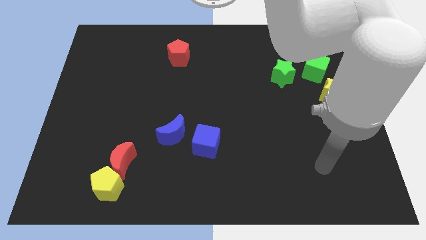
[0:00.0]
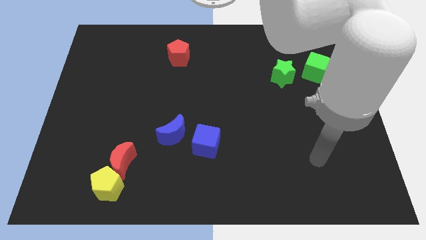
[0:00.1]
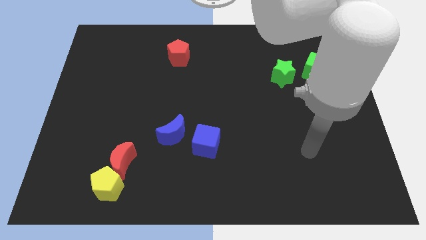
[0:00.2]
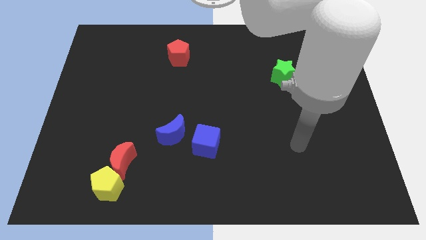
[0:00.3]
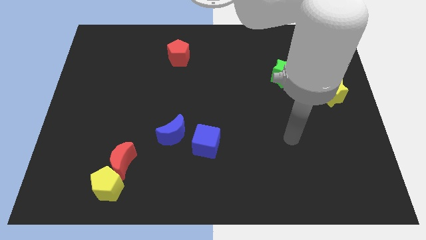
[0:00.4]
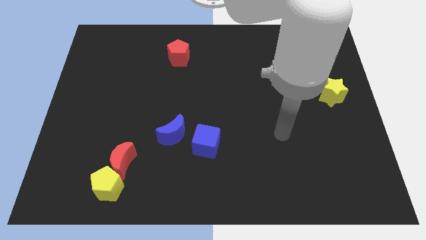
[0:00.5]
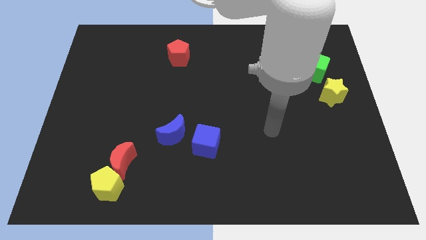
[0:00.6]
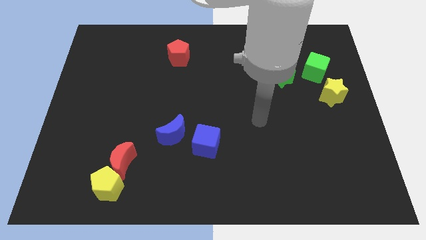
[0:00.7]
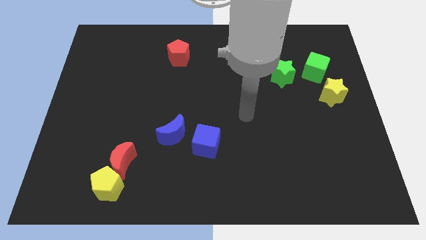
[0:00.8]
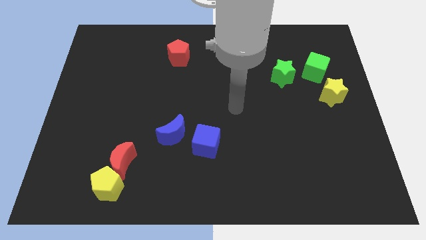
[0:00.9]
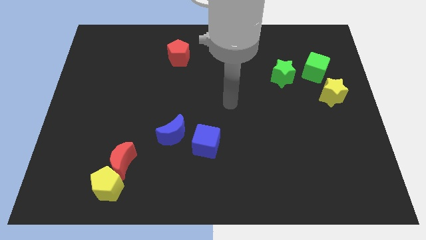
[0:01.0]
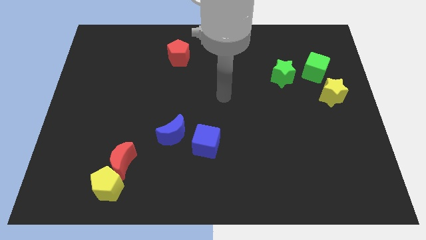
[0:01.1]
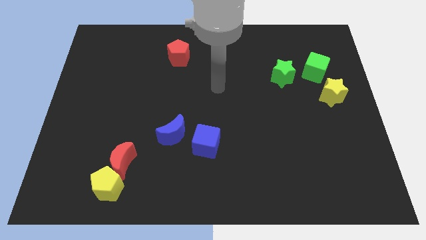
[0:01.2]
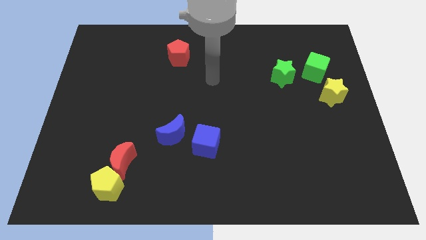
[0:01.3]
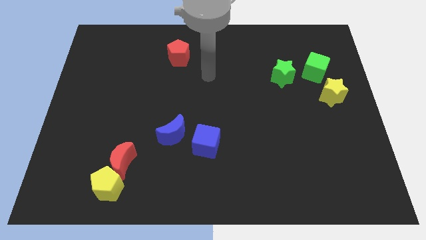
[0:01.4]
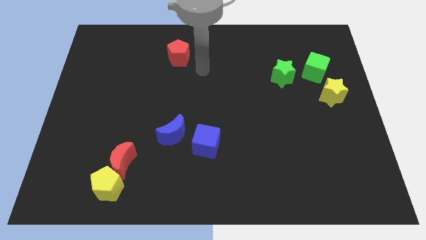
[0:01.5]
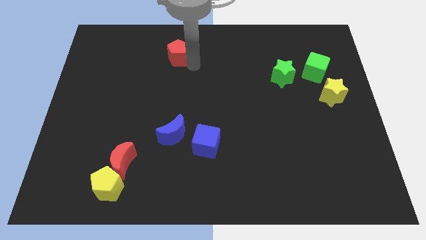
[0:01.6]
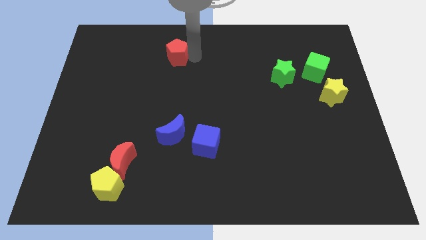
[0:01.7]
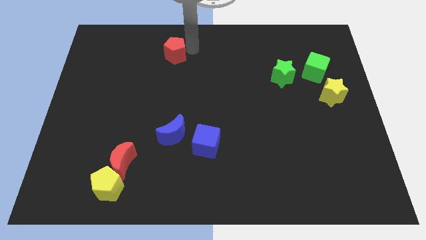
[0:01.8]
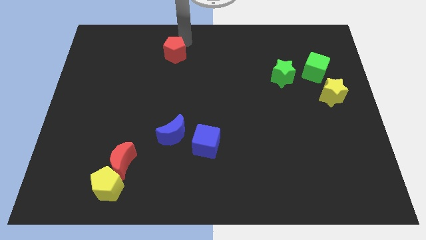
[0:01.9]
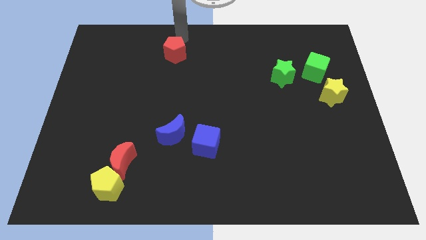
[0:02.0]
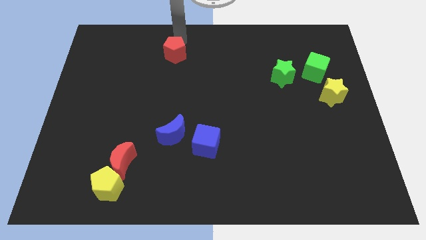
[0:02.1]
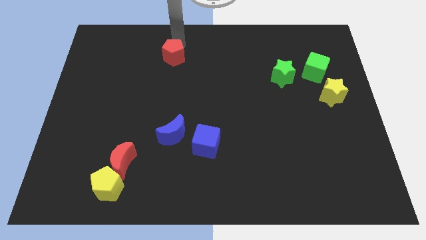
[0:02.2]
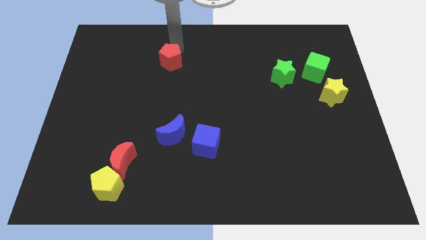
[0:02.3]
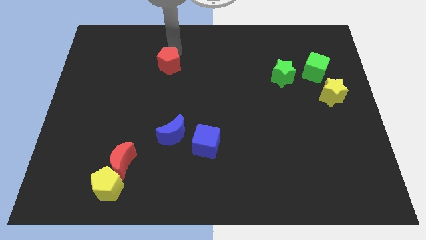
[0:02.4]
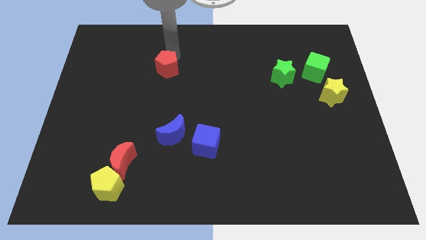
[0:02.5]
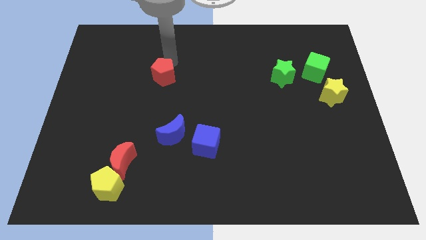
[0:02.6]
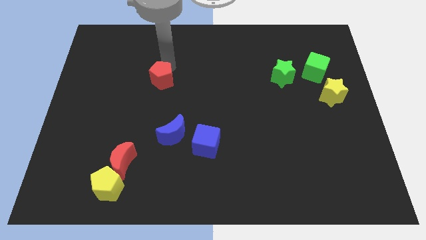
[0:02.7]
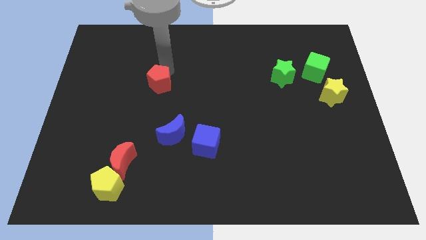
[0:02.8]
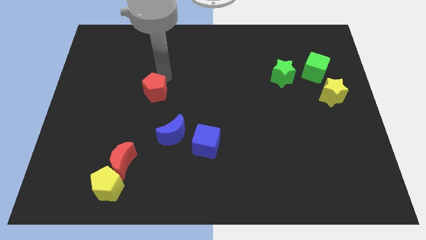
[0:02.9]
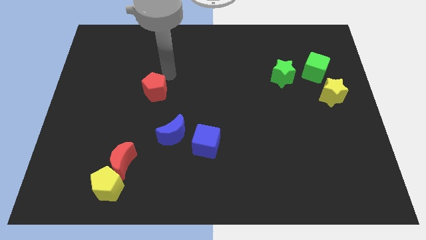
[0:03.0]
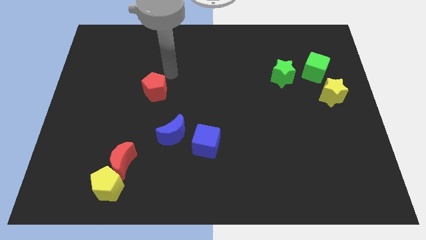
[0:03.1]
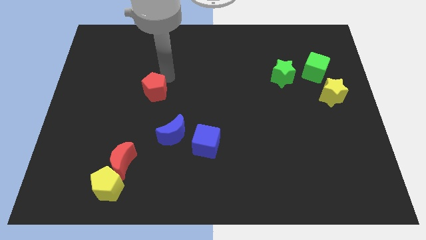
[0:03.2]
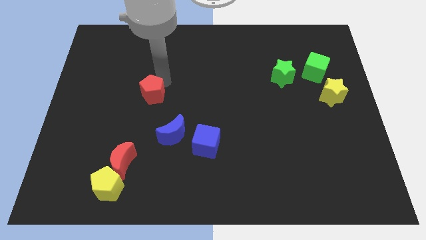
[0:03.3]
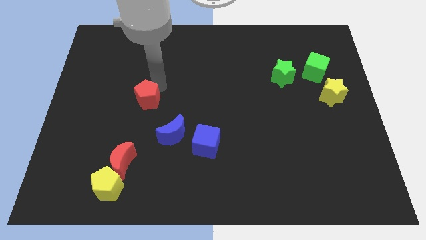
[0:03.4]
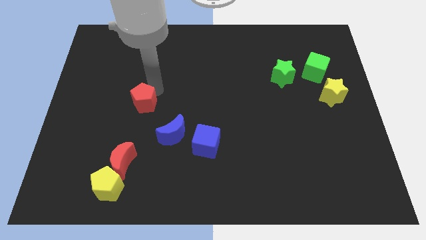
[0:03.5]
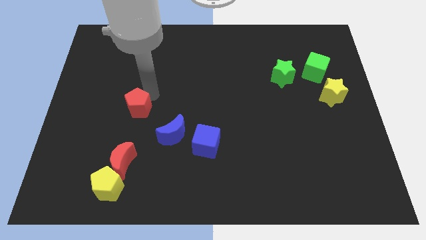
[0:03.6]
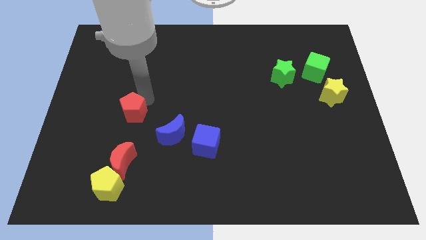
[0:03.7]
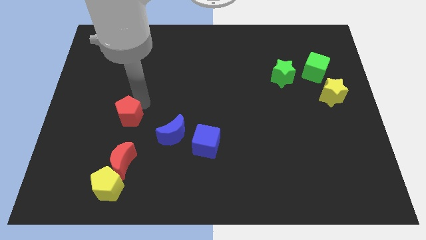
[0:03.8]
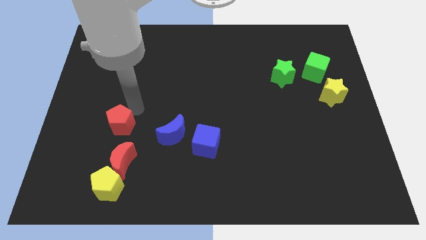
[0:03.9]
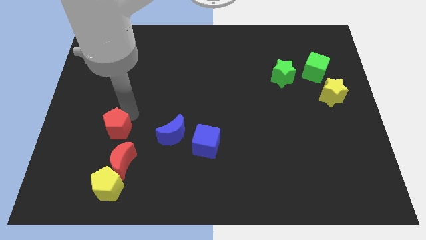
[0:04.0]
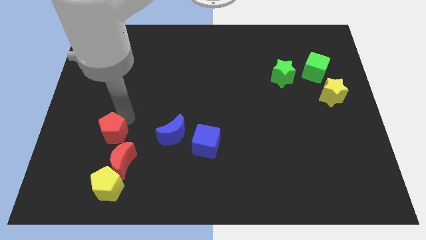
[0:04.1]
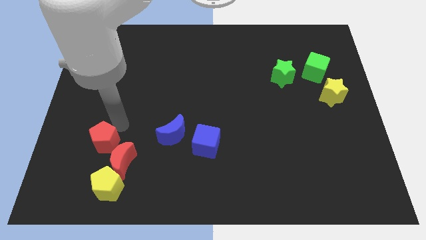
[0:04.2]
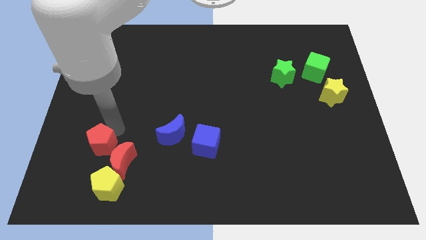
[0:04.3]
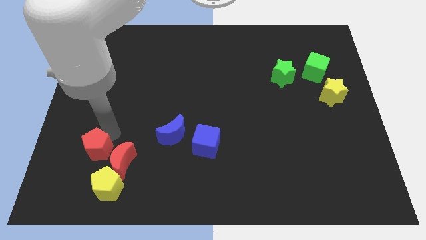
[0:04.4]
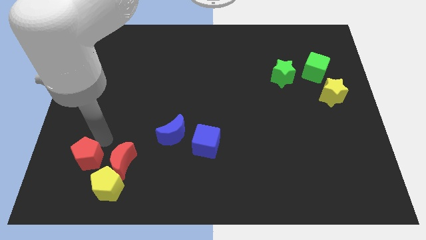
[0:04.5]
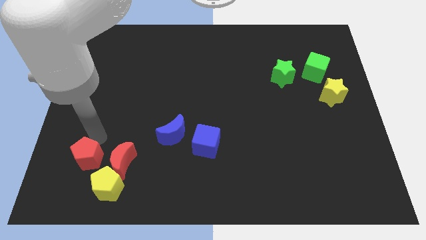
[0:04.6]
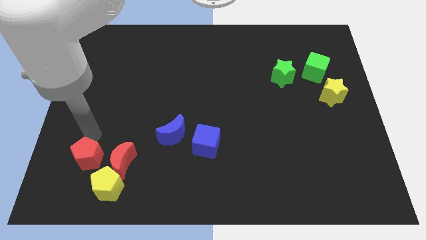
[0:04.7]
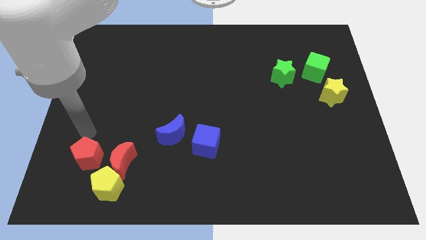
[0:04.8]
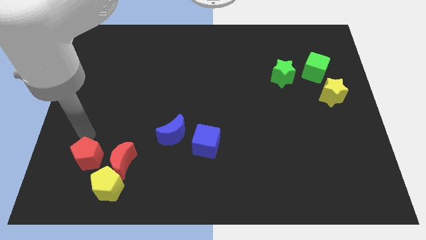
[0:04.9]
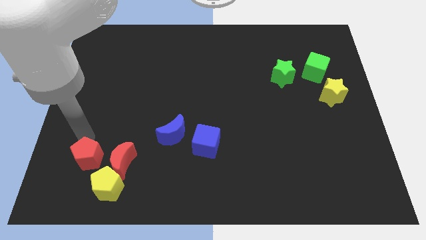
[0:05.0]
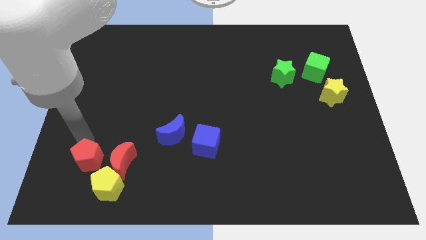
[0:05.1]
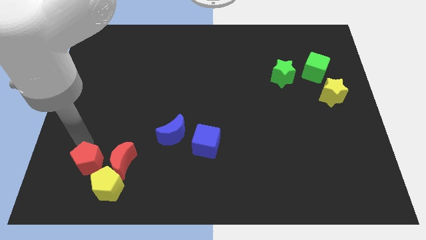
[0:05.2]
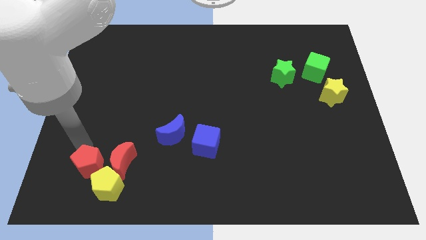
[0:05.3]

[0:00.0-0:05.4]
move the red pentagon to the bottom left of the red moon

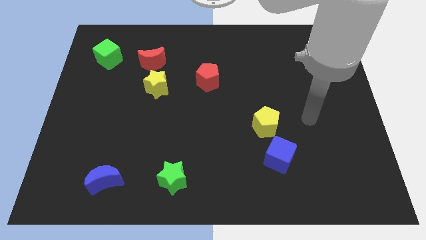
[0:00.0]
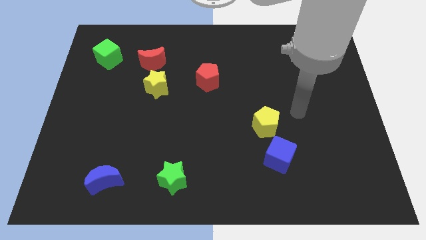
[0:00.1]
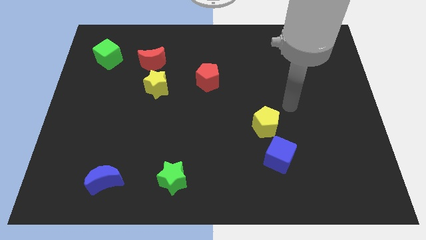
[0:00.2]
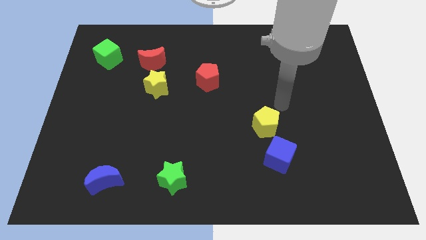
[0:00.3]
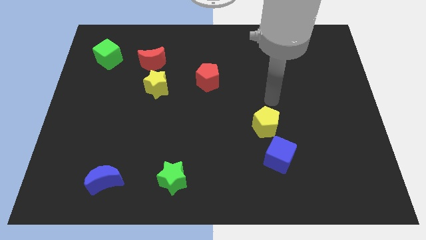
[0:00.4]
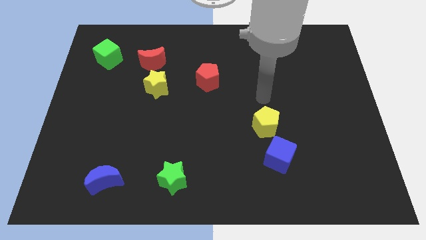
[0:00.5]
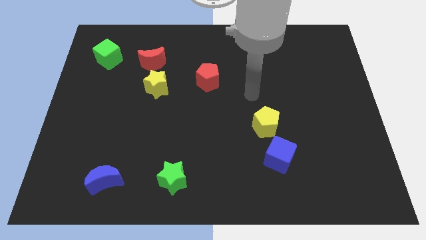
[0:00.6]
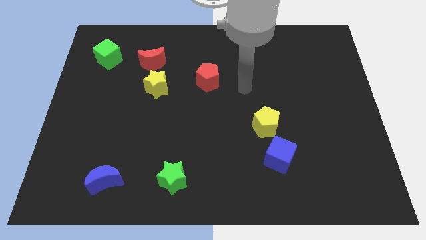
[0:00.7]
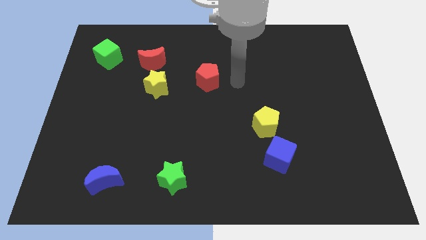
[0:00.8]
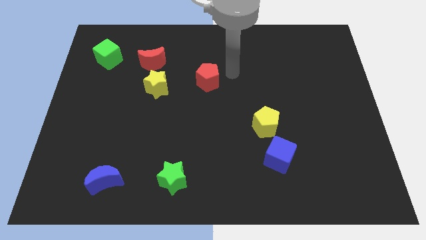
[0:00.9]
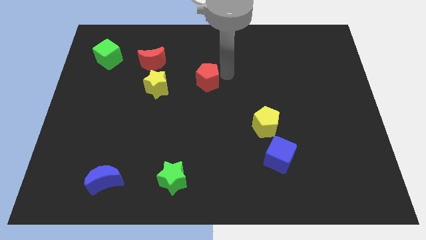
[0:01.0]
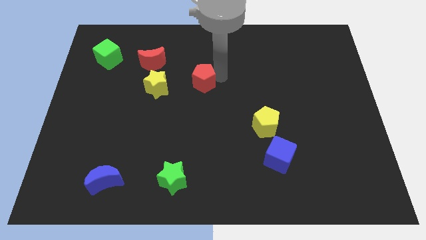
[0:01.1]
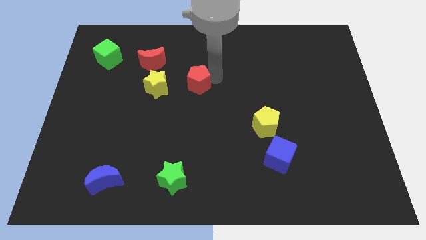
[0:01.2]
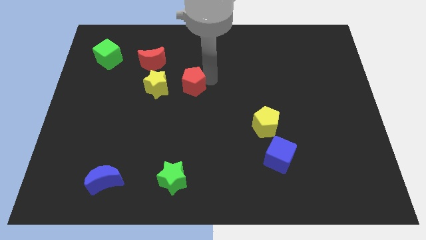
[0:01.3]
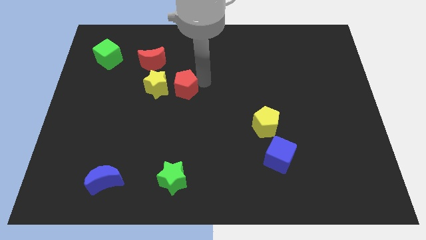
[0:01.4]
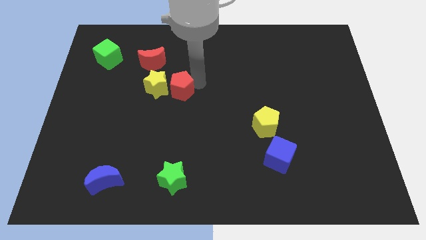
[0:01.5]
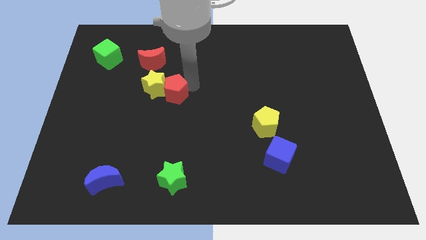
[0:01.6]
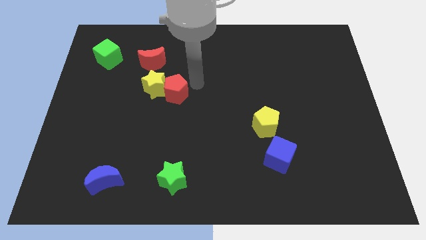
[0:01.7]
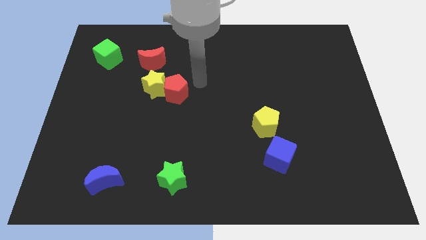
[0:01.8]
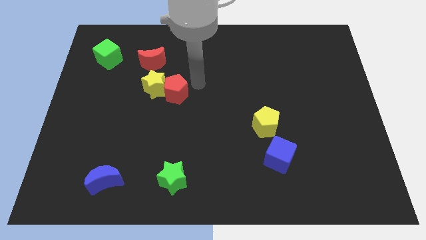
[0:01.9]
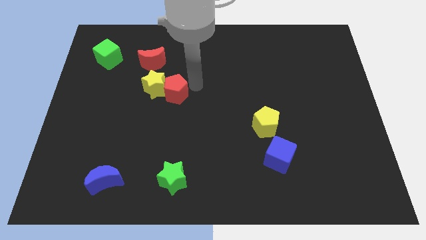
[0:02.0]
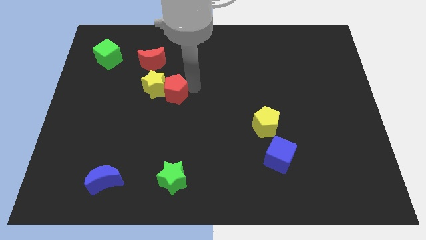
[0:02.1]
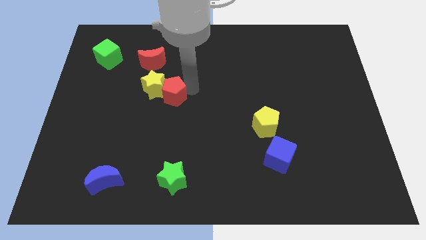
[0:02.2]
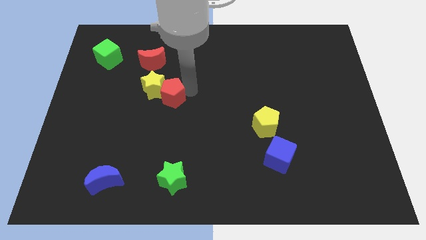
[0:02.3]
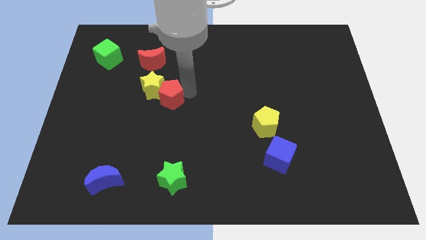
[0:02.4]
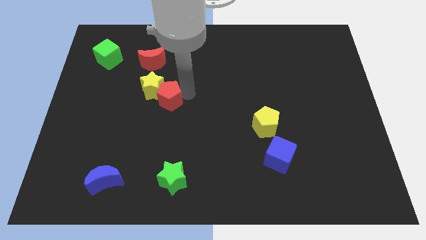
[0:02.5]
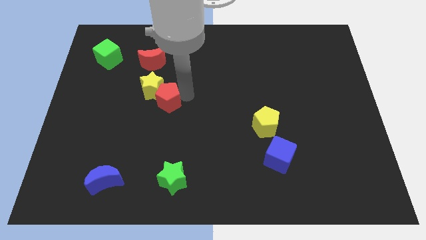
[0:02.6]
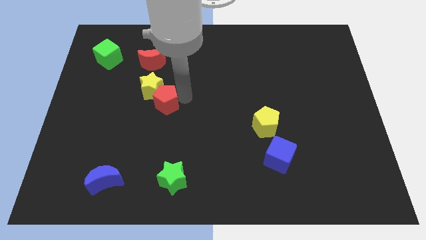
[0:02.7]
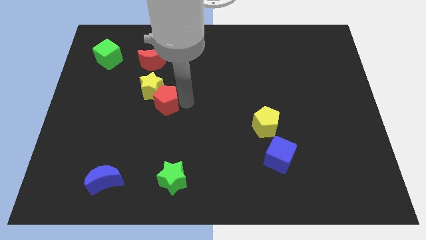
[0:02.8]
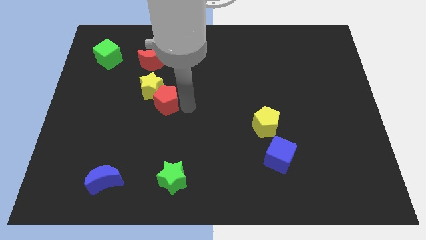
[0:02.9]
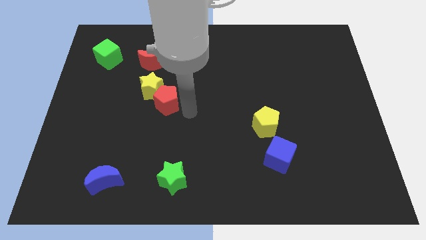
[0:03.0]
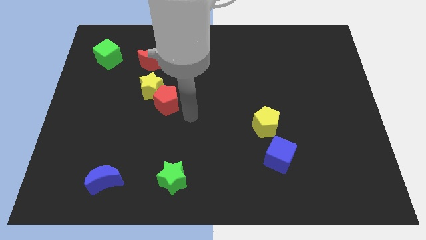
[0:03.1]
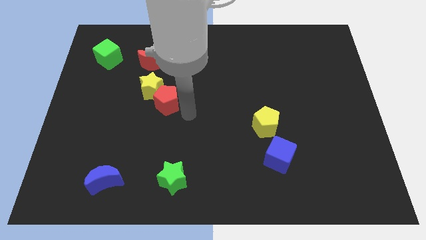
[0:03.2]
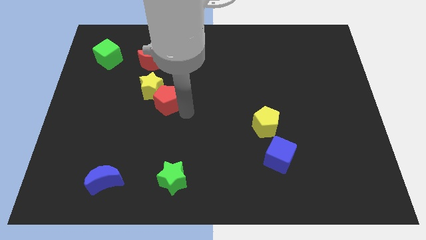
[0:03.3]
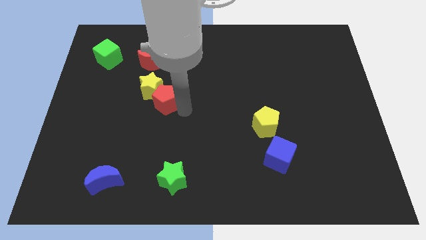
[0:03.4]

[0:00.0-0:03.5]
push the red pentagon below the red moon

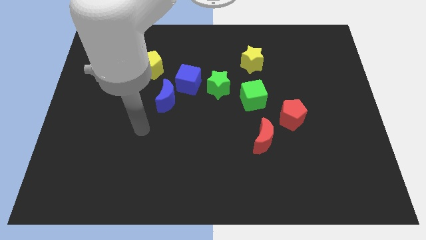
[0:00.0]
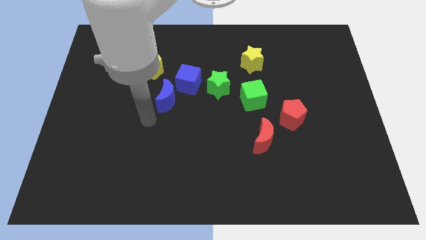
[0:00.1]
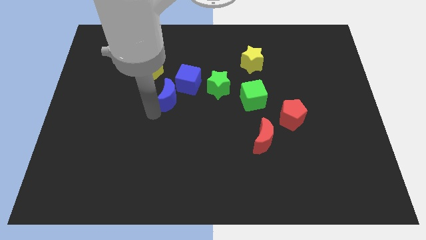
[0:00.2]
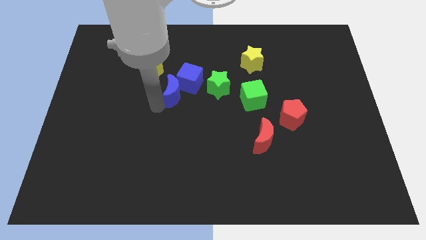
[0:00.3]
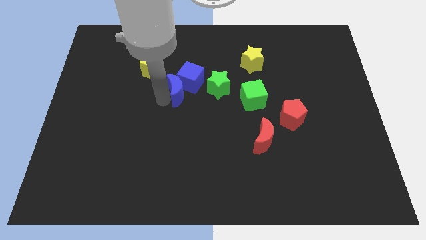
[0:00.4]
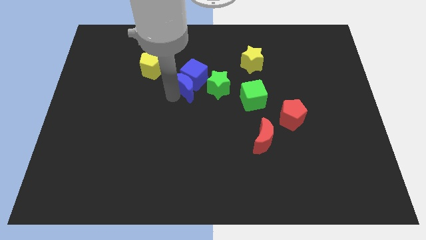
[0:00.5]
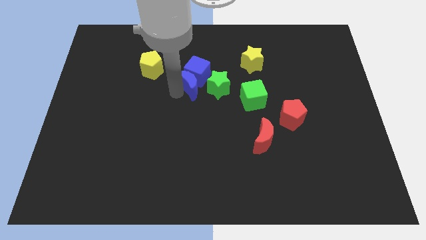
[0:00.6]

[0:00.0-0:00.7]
move the blue cube to the left of the yellow star
